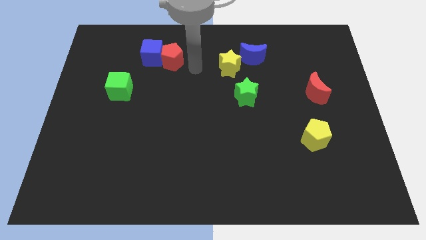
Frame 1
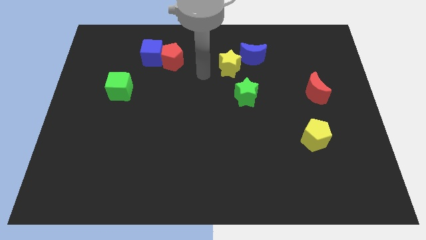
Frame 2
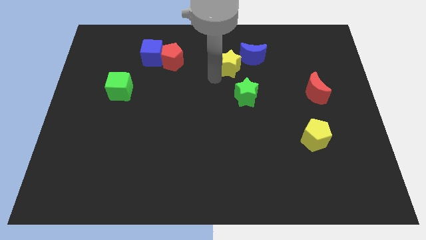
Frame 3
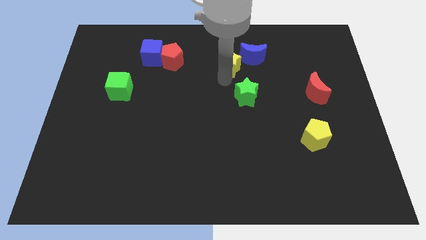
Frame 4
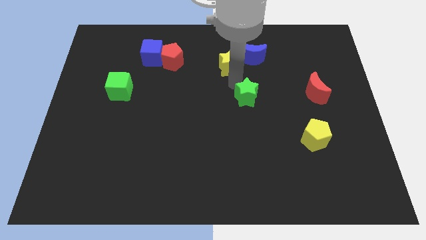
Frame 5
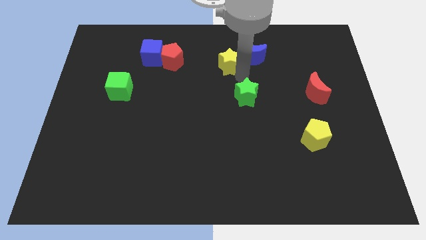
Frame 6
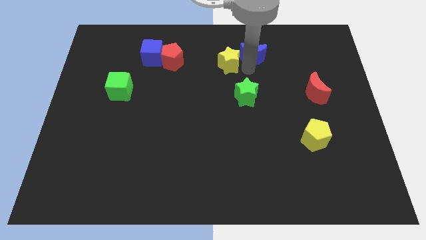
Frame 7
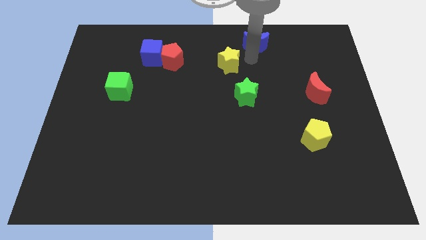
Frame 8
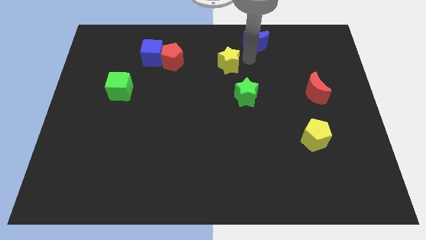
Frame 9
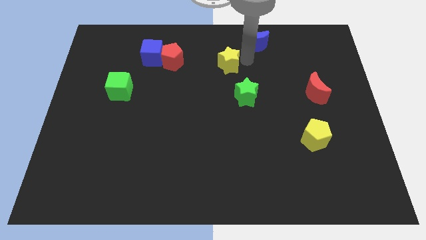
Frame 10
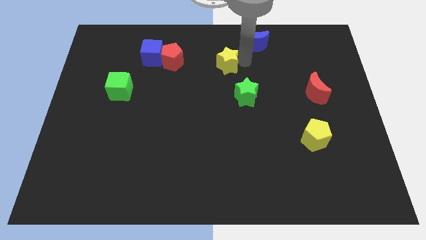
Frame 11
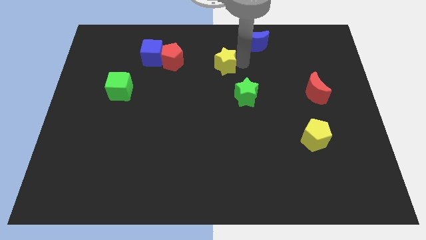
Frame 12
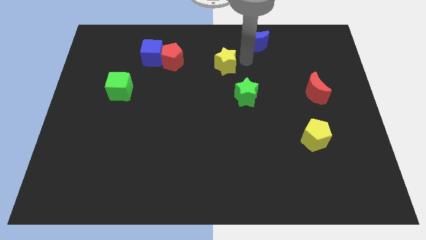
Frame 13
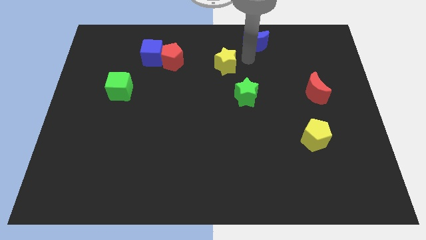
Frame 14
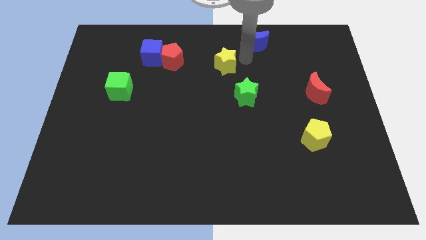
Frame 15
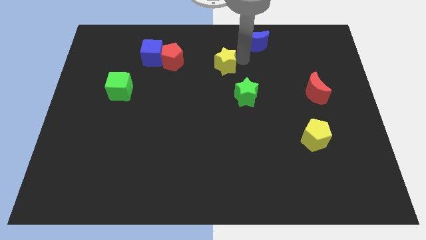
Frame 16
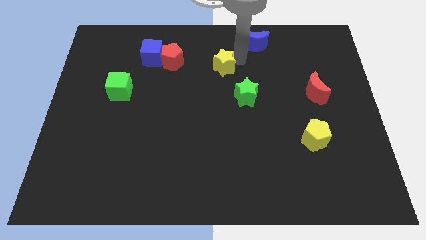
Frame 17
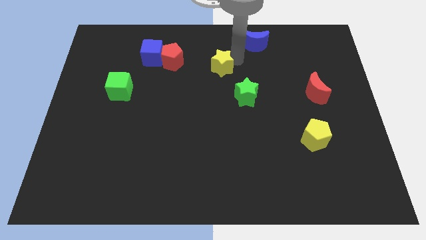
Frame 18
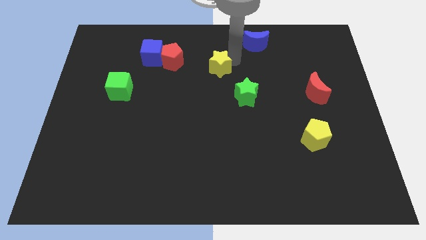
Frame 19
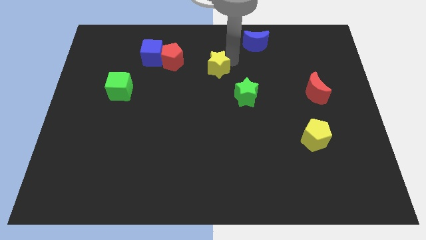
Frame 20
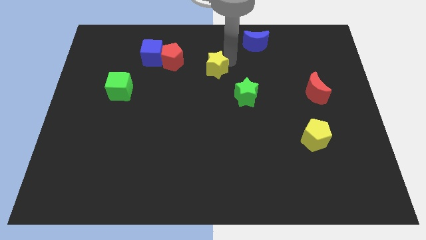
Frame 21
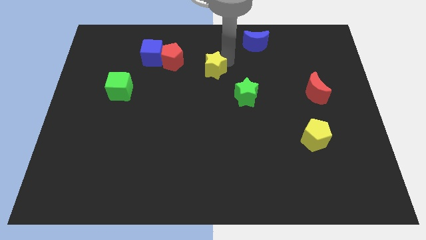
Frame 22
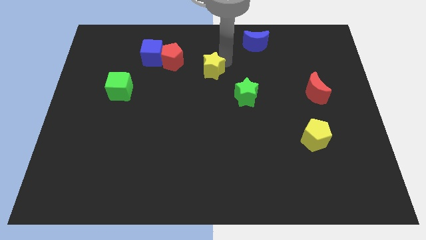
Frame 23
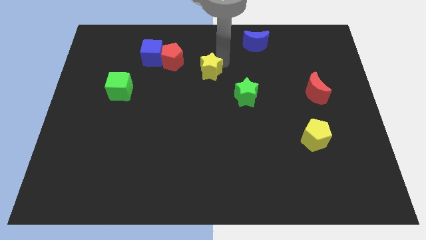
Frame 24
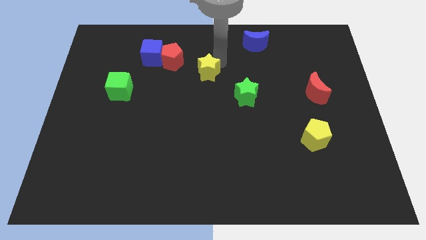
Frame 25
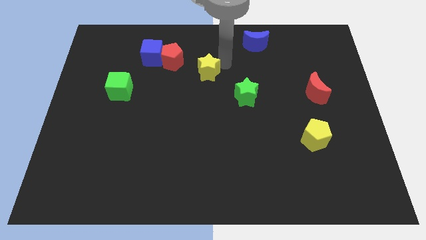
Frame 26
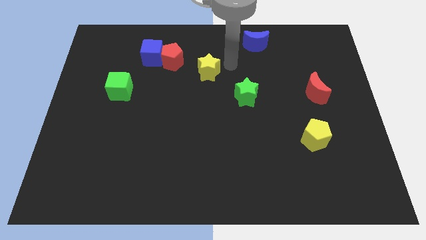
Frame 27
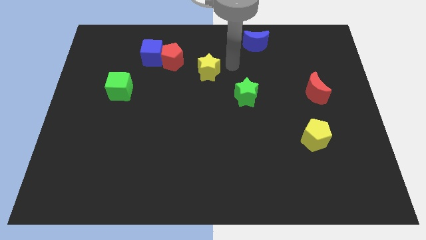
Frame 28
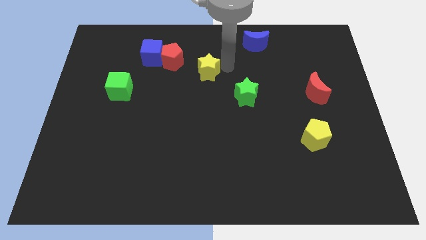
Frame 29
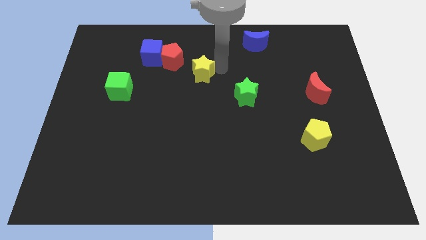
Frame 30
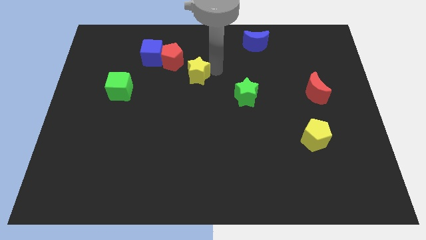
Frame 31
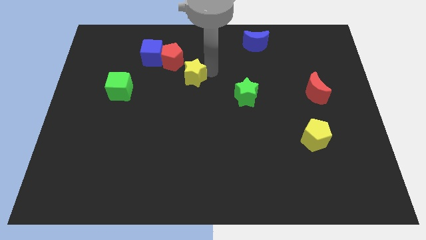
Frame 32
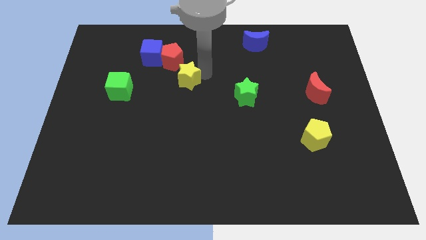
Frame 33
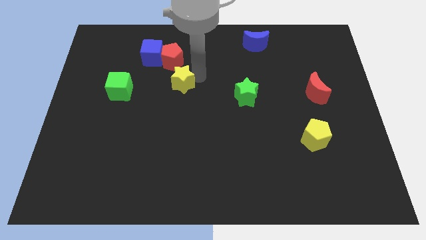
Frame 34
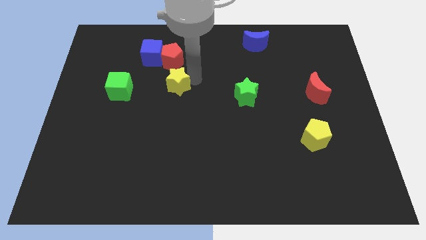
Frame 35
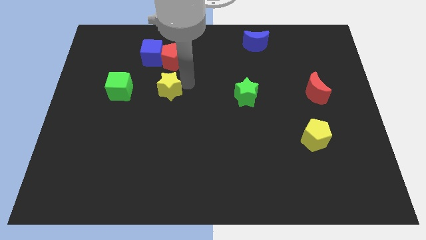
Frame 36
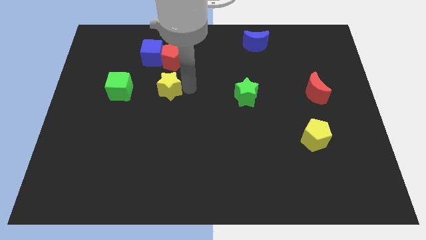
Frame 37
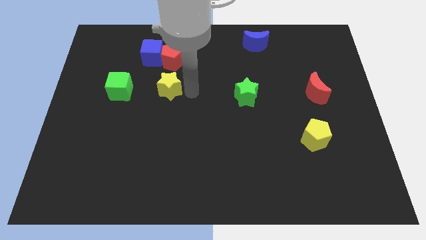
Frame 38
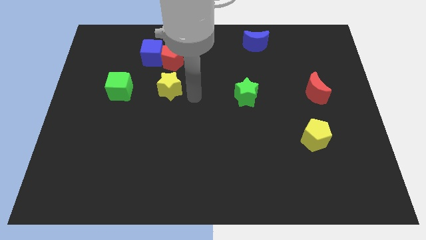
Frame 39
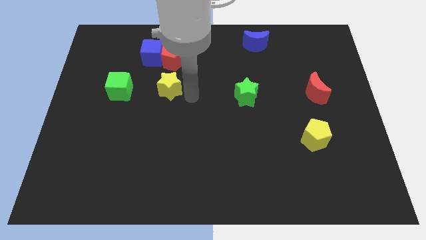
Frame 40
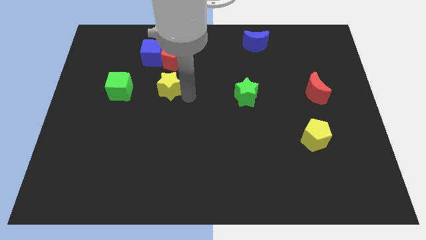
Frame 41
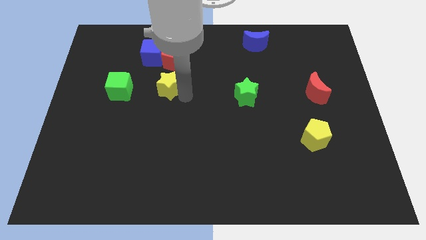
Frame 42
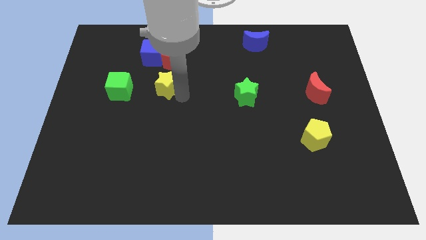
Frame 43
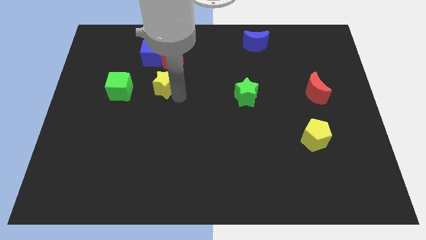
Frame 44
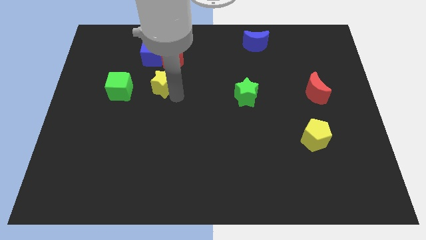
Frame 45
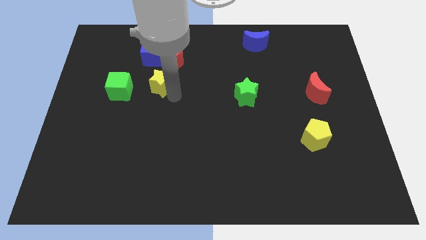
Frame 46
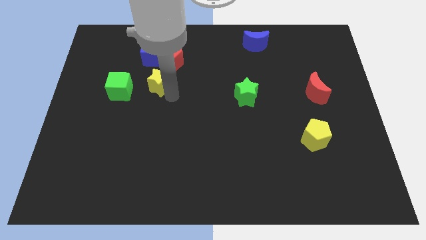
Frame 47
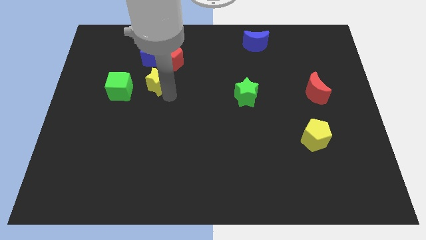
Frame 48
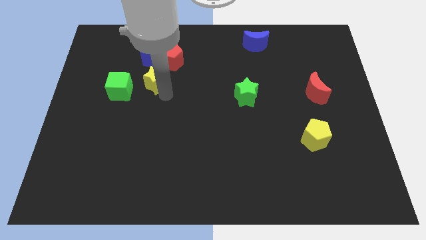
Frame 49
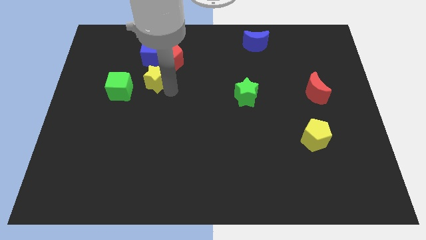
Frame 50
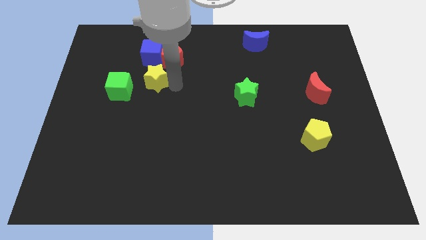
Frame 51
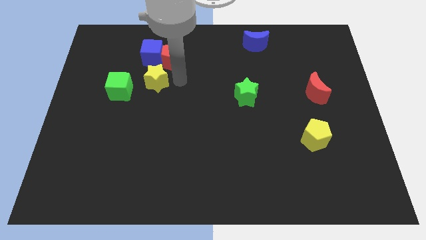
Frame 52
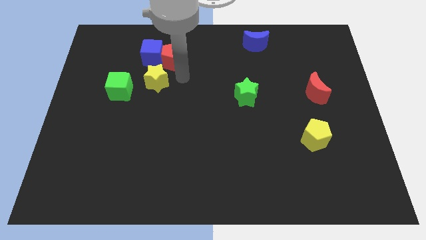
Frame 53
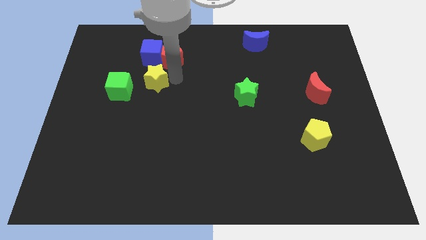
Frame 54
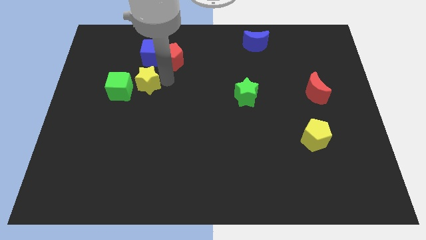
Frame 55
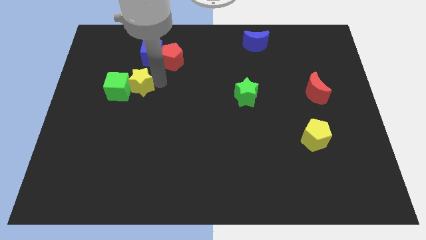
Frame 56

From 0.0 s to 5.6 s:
put the yellow star to the green cube

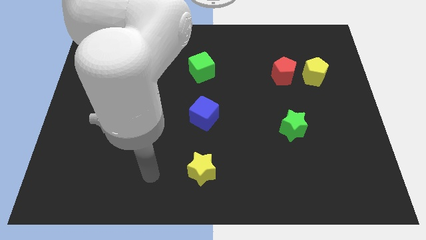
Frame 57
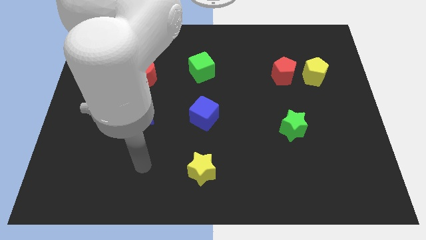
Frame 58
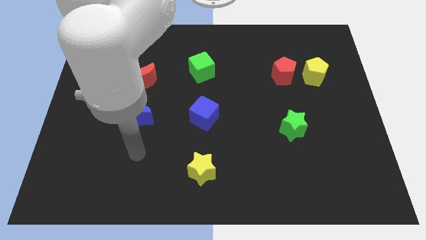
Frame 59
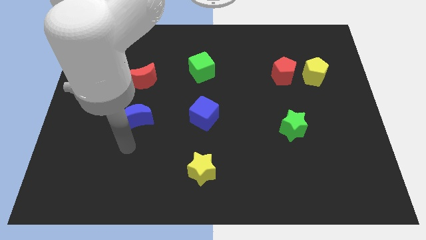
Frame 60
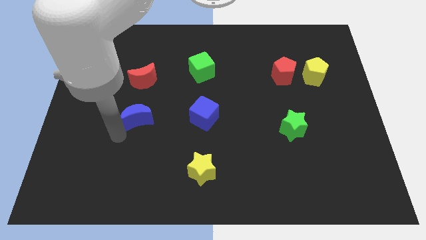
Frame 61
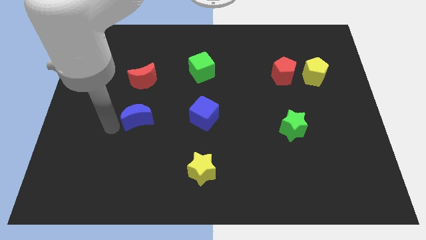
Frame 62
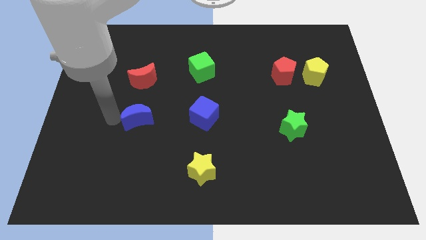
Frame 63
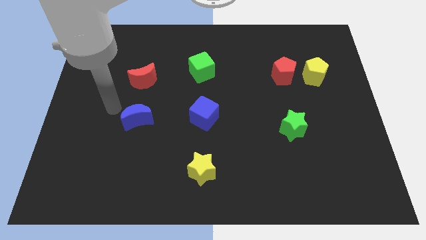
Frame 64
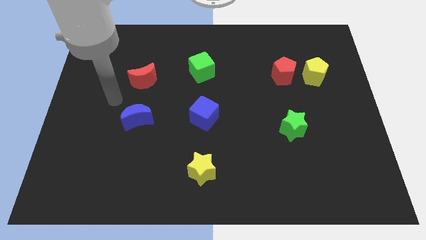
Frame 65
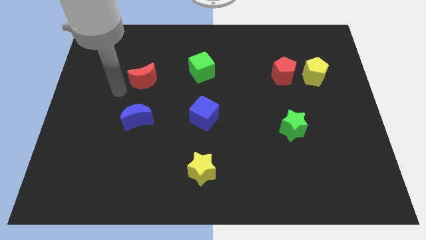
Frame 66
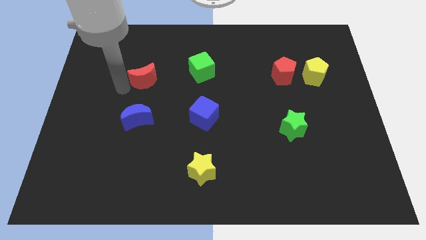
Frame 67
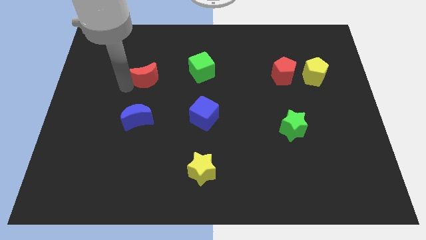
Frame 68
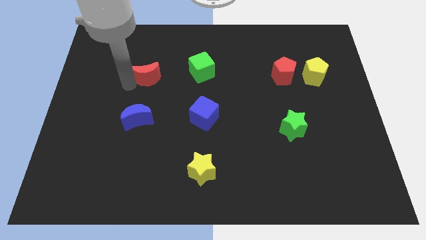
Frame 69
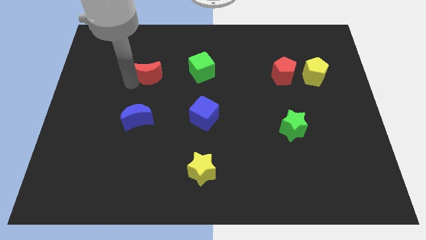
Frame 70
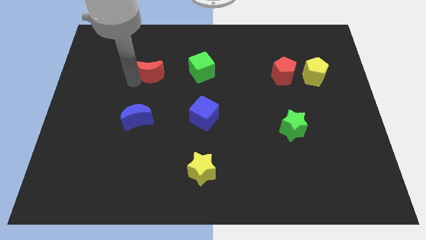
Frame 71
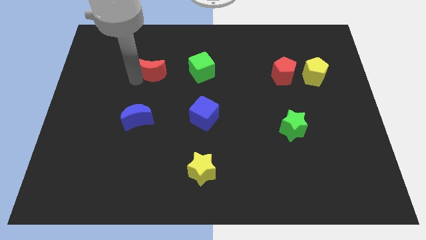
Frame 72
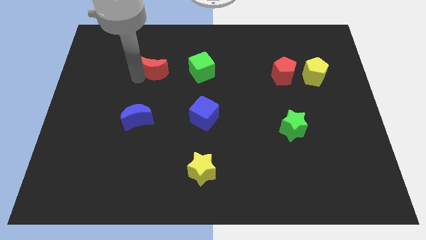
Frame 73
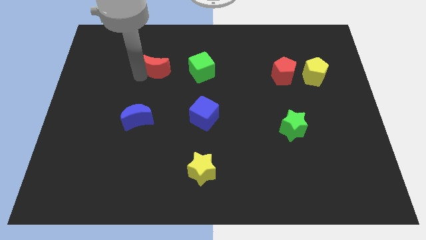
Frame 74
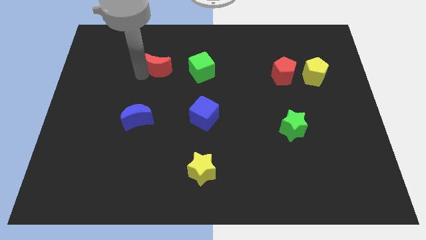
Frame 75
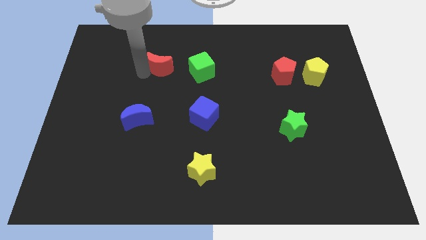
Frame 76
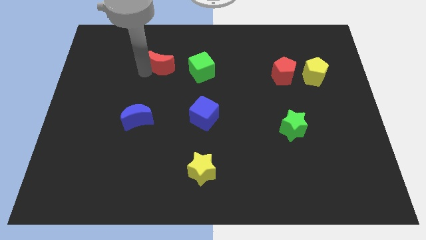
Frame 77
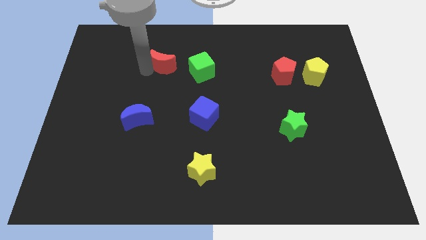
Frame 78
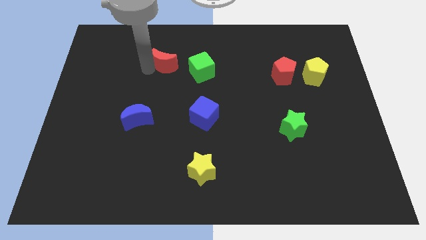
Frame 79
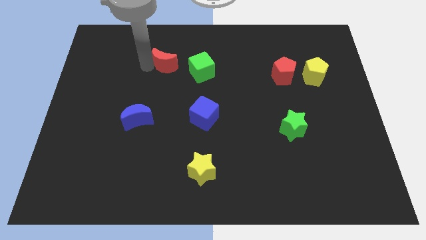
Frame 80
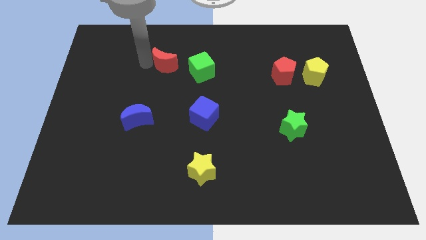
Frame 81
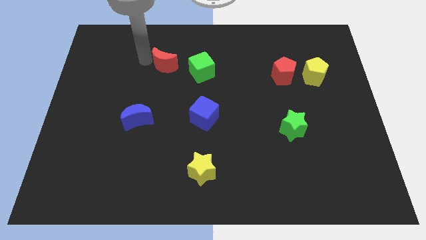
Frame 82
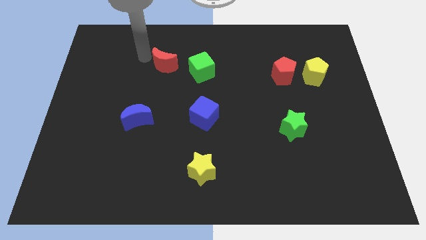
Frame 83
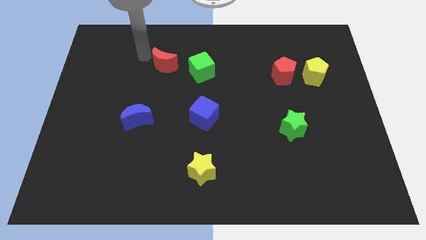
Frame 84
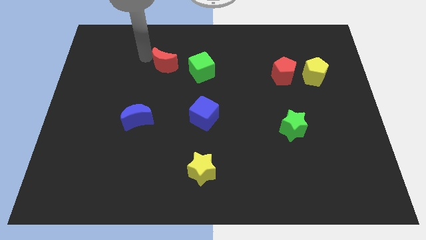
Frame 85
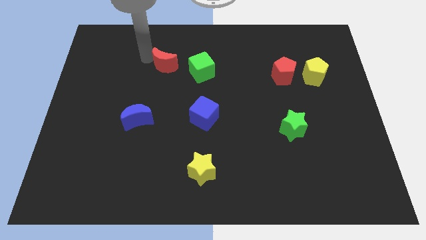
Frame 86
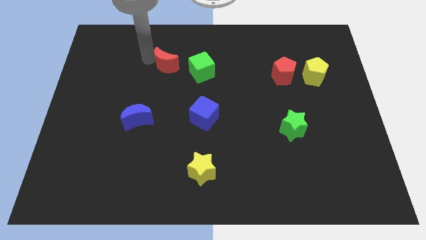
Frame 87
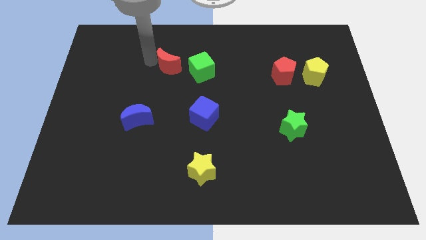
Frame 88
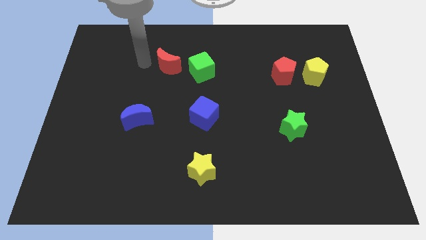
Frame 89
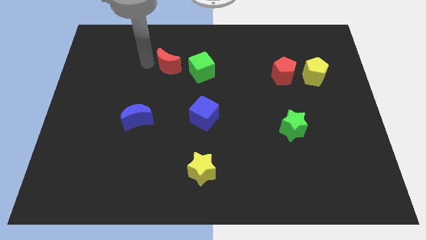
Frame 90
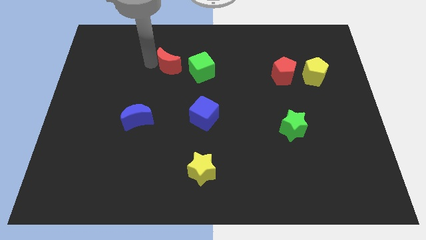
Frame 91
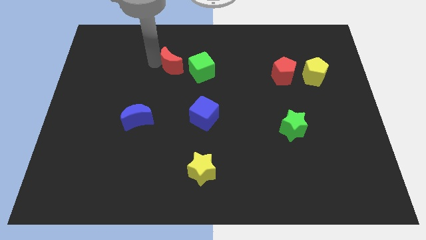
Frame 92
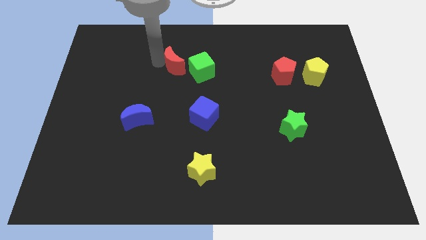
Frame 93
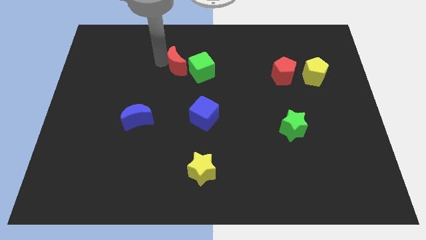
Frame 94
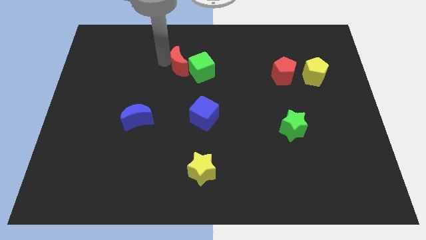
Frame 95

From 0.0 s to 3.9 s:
slide the red moon to the green cube
